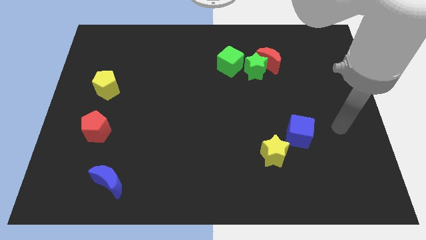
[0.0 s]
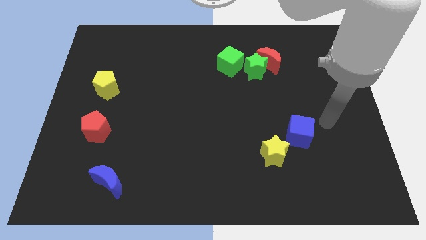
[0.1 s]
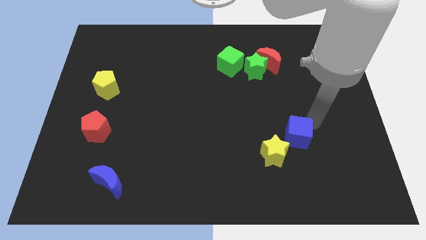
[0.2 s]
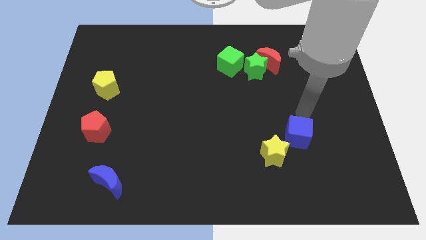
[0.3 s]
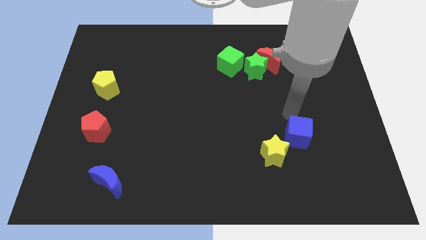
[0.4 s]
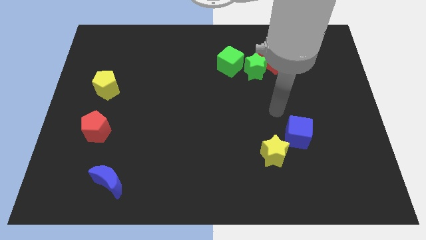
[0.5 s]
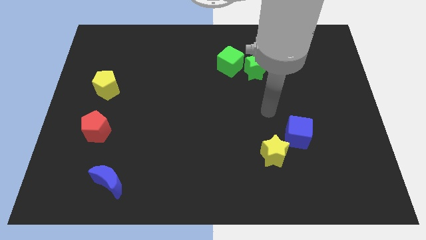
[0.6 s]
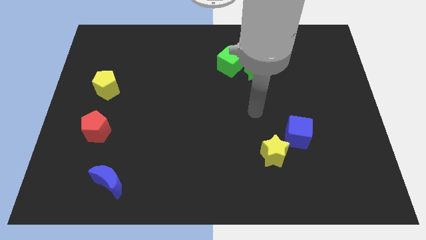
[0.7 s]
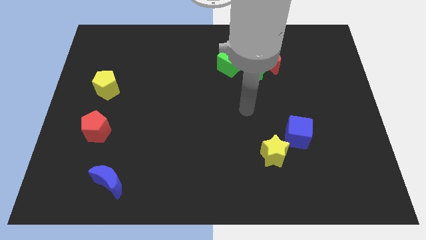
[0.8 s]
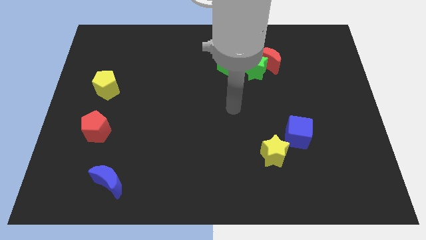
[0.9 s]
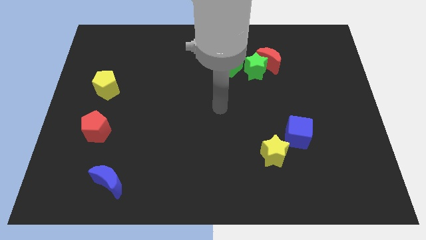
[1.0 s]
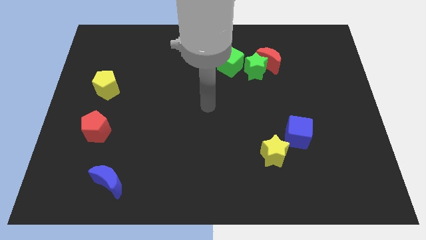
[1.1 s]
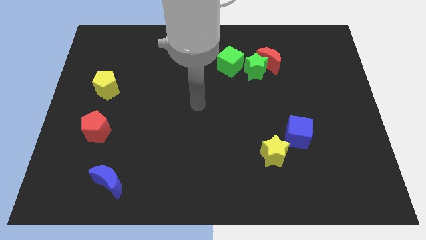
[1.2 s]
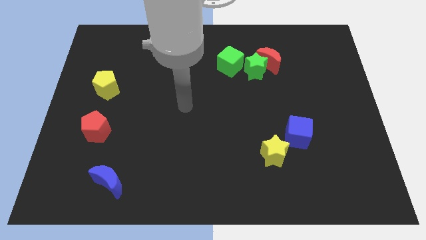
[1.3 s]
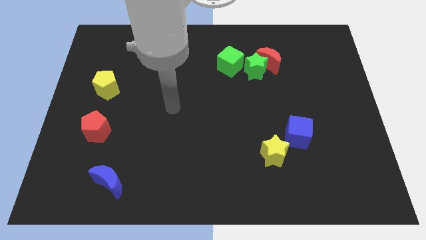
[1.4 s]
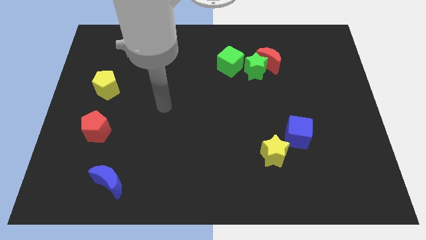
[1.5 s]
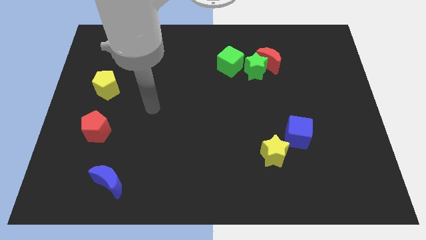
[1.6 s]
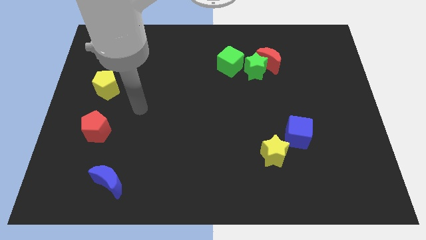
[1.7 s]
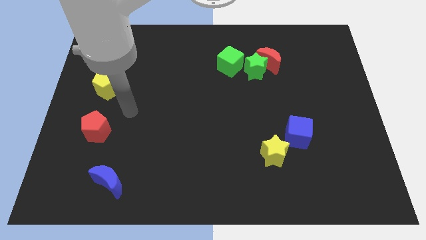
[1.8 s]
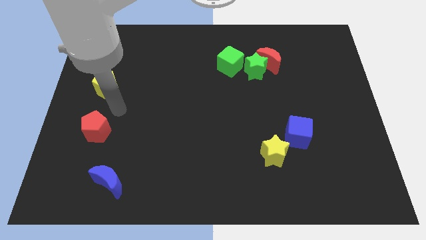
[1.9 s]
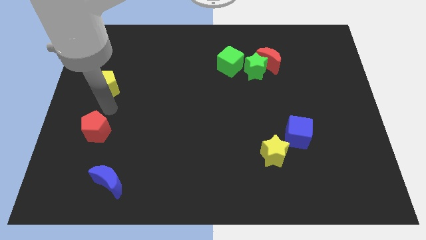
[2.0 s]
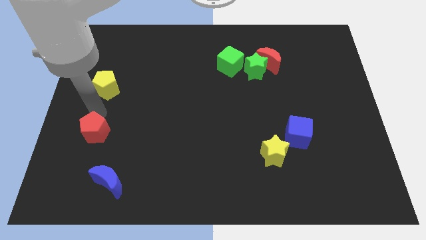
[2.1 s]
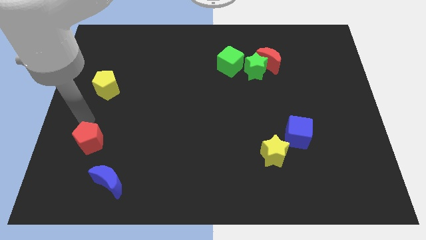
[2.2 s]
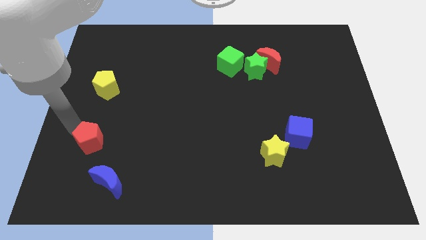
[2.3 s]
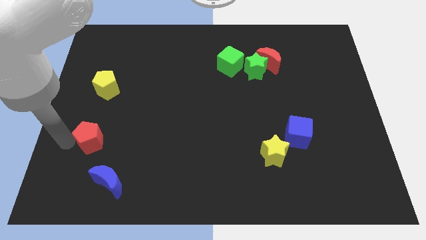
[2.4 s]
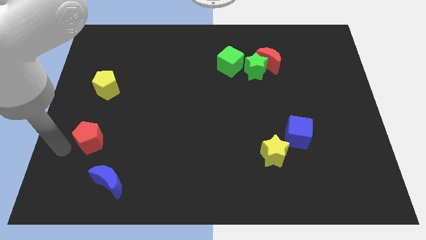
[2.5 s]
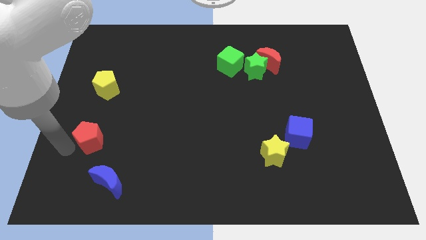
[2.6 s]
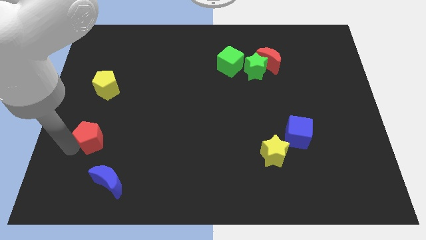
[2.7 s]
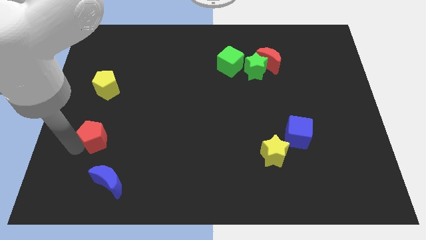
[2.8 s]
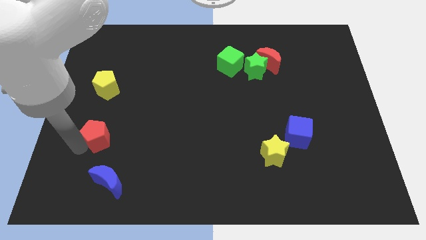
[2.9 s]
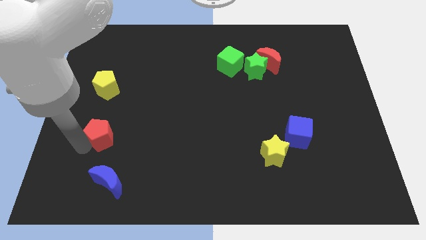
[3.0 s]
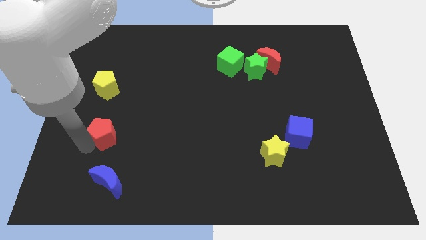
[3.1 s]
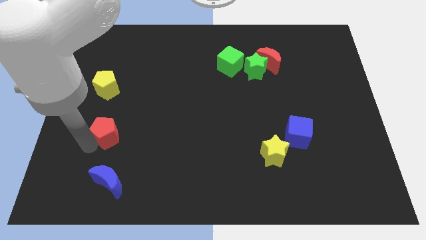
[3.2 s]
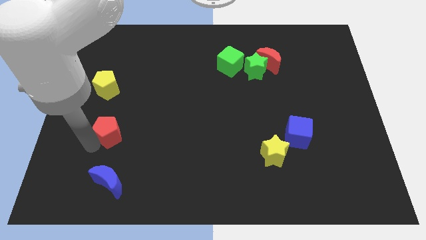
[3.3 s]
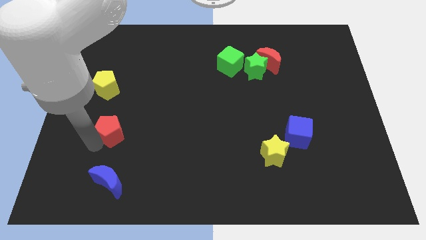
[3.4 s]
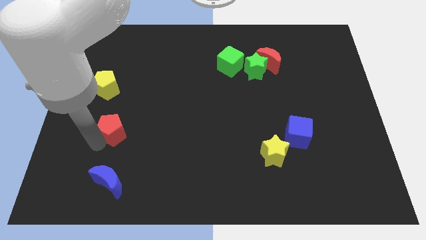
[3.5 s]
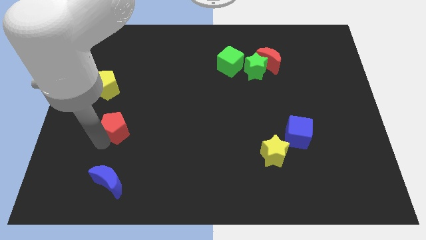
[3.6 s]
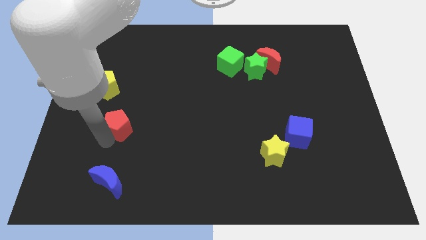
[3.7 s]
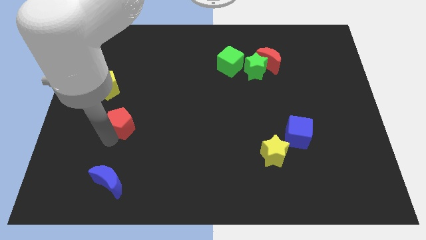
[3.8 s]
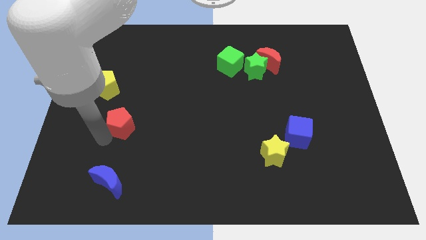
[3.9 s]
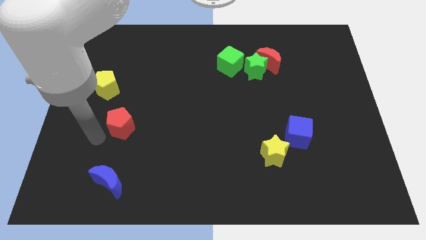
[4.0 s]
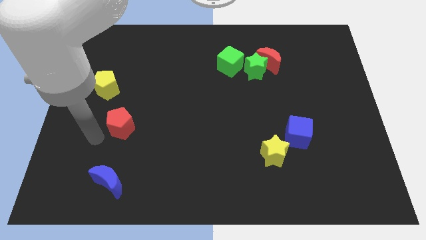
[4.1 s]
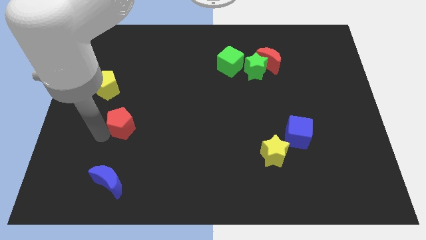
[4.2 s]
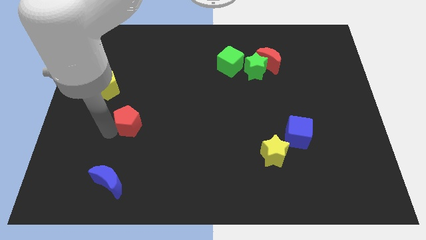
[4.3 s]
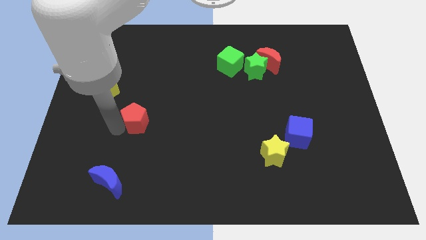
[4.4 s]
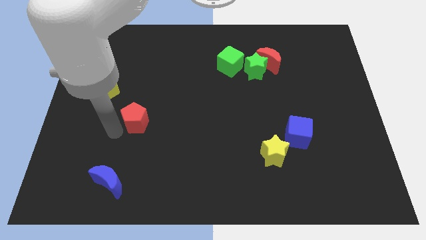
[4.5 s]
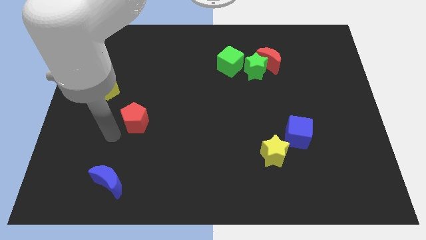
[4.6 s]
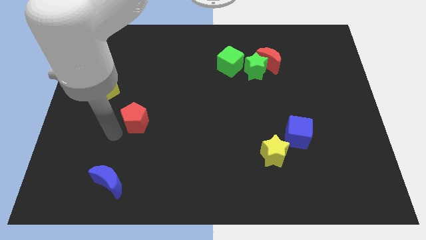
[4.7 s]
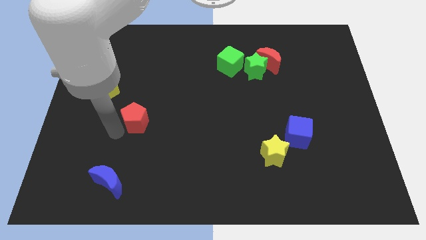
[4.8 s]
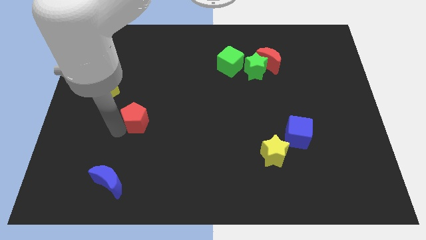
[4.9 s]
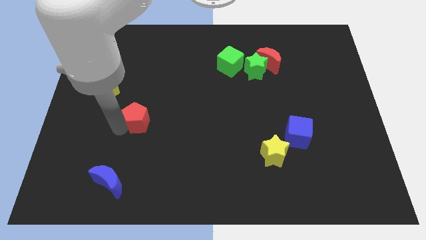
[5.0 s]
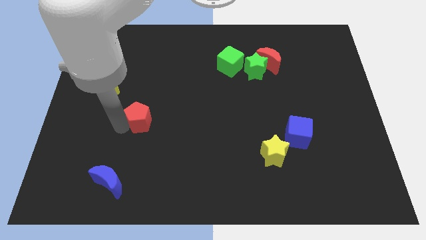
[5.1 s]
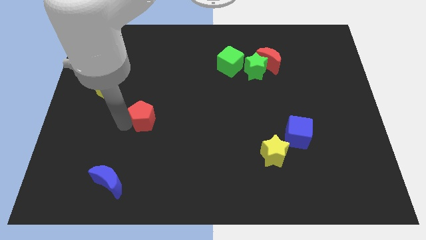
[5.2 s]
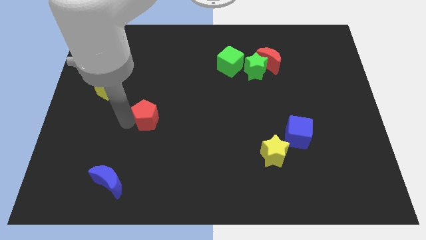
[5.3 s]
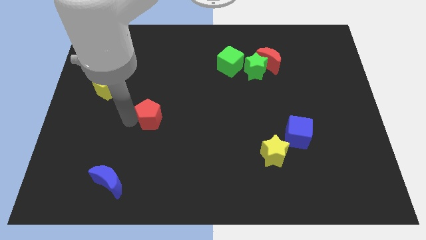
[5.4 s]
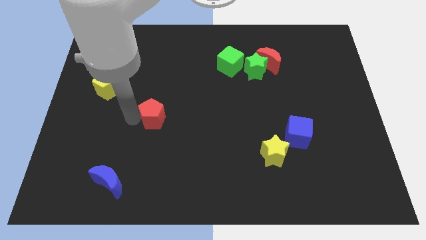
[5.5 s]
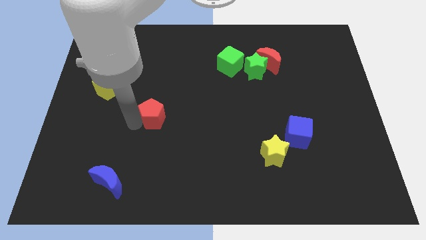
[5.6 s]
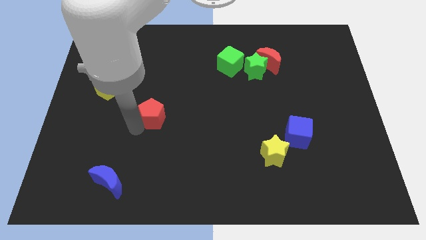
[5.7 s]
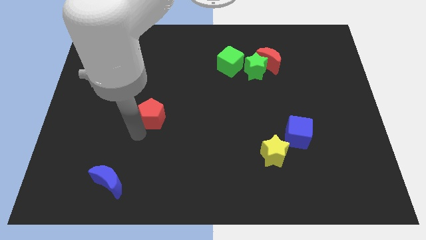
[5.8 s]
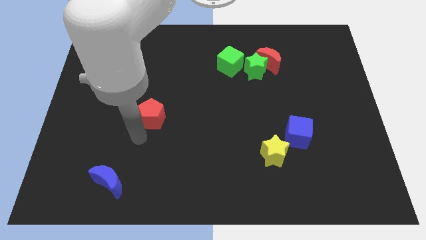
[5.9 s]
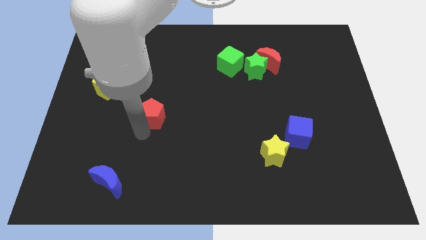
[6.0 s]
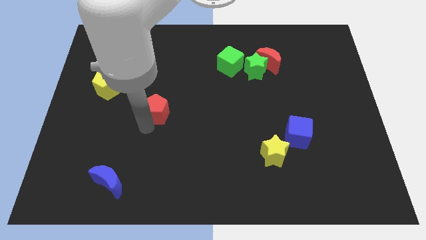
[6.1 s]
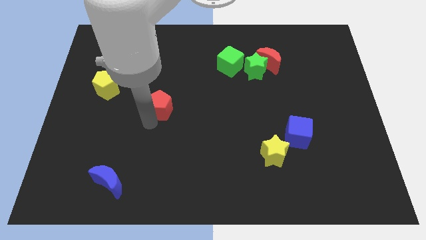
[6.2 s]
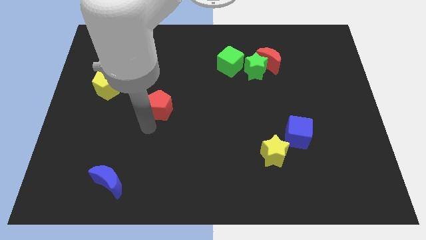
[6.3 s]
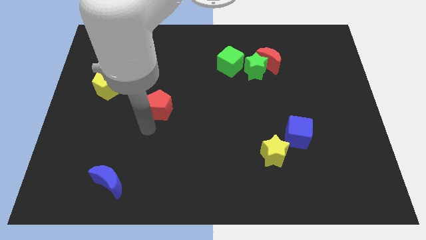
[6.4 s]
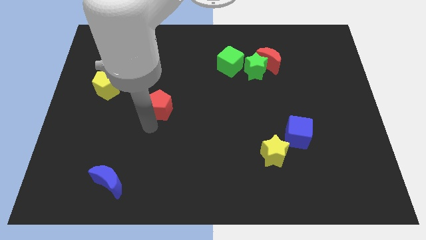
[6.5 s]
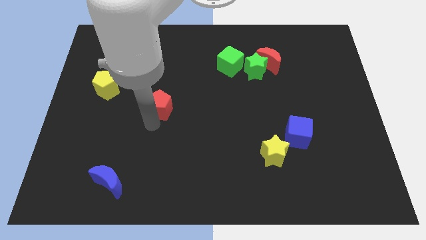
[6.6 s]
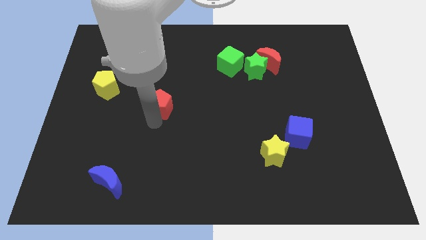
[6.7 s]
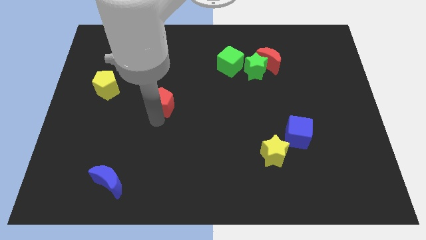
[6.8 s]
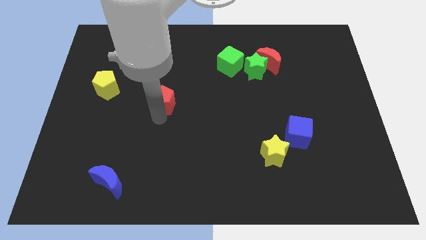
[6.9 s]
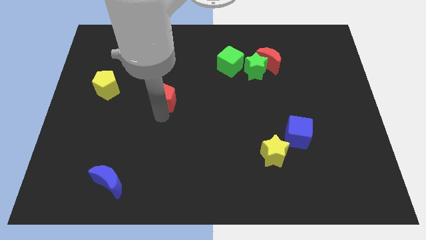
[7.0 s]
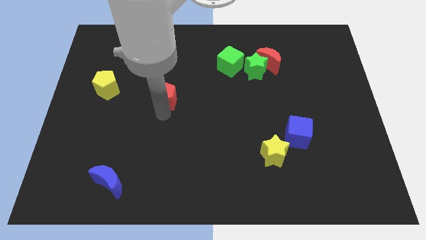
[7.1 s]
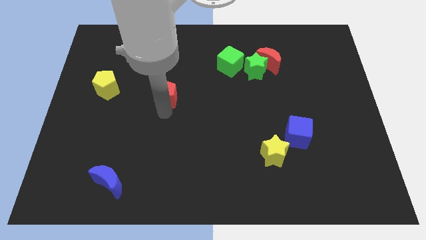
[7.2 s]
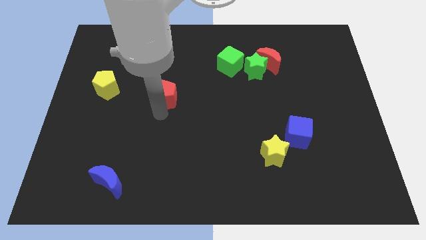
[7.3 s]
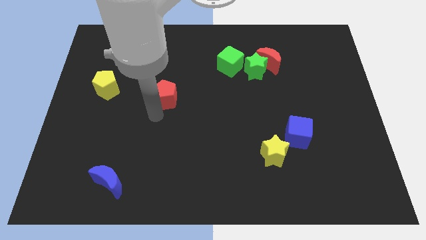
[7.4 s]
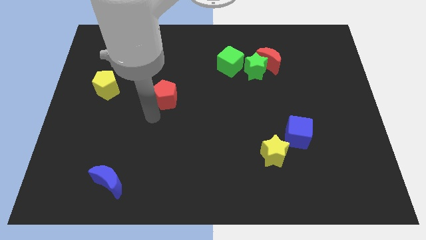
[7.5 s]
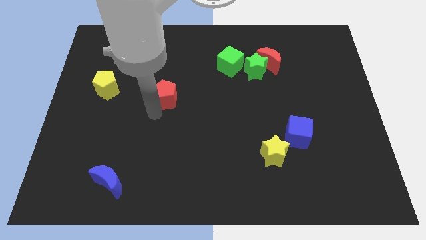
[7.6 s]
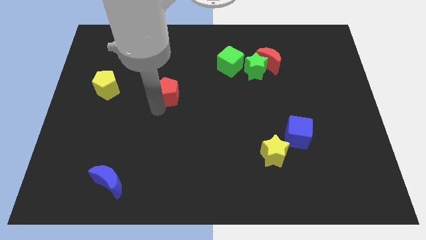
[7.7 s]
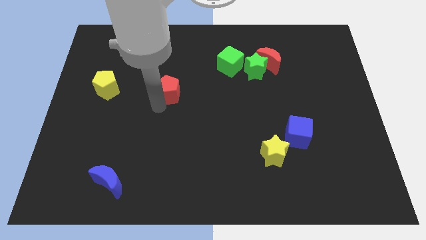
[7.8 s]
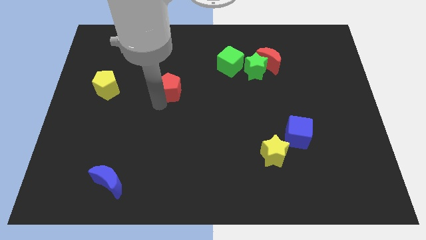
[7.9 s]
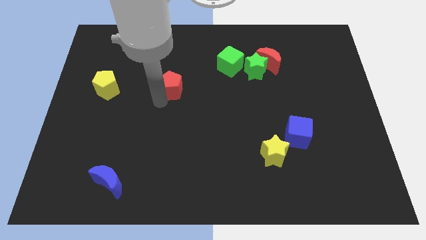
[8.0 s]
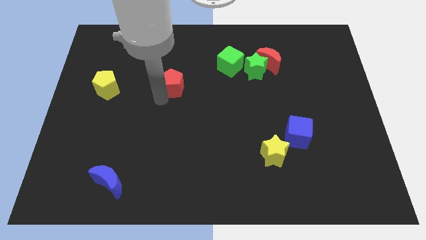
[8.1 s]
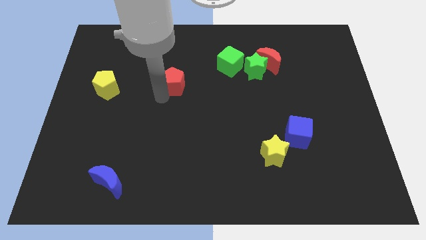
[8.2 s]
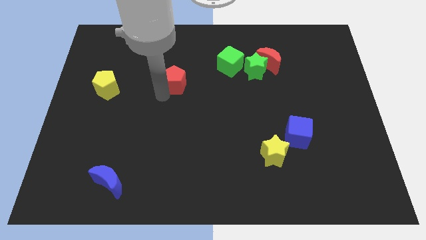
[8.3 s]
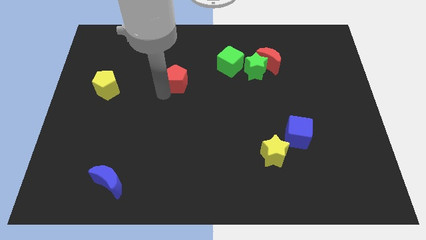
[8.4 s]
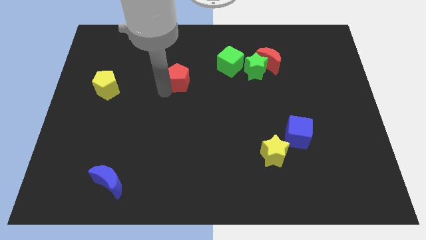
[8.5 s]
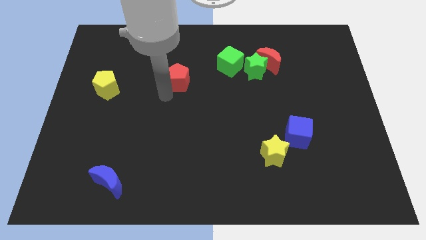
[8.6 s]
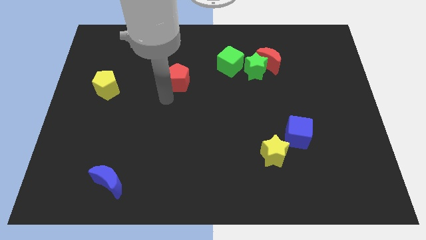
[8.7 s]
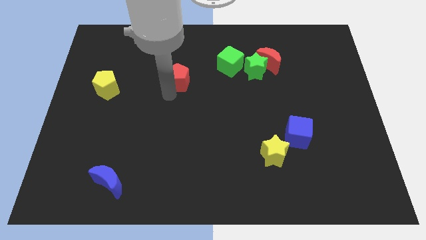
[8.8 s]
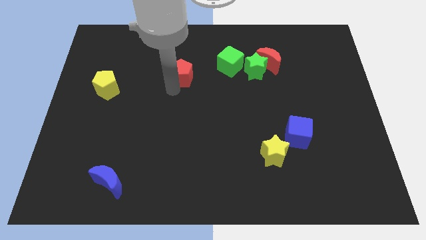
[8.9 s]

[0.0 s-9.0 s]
move the red pentagon left of the green cube

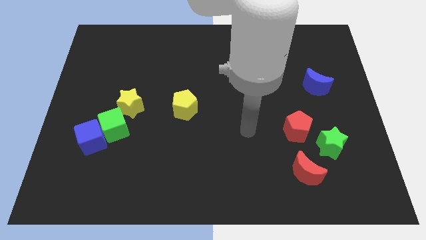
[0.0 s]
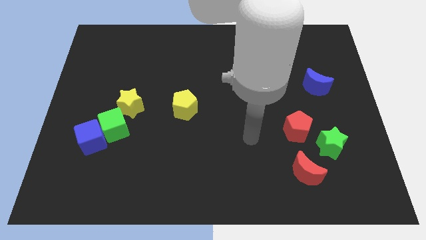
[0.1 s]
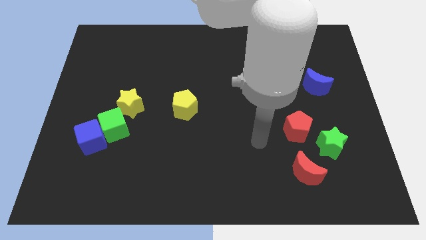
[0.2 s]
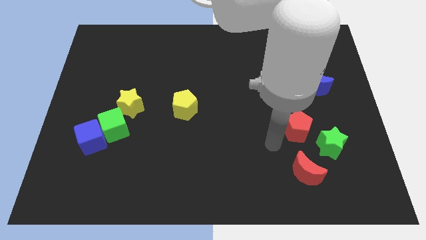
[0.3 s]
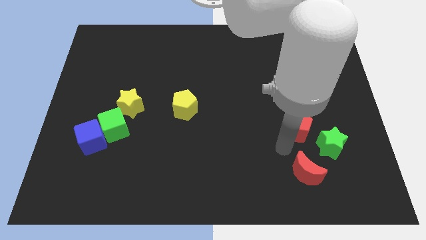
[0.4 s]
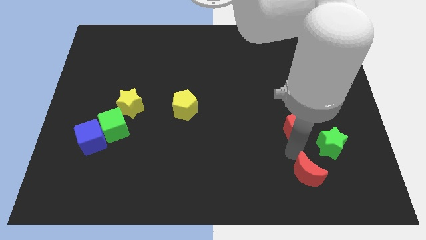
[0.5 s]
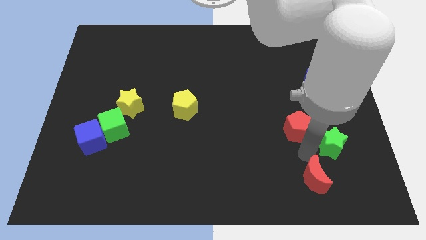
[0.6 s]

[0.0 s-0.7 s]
put the green star to the top of the red moon
